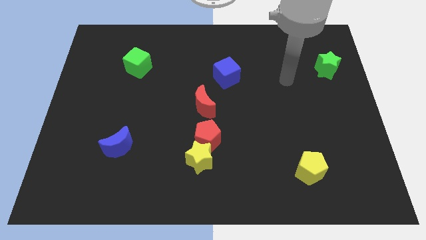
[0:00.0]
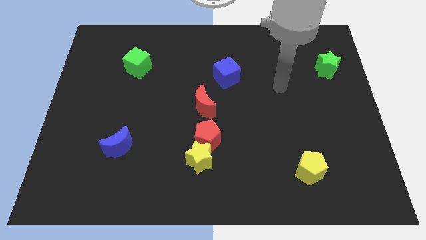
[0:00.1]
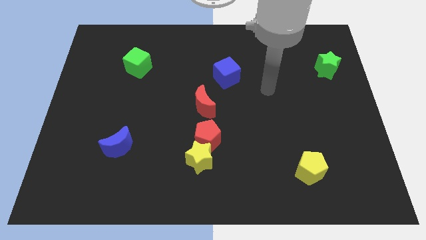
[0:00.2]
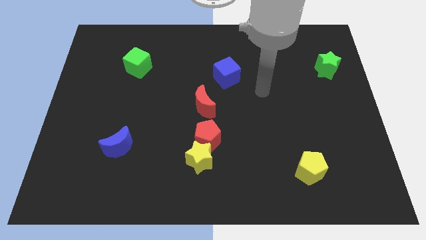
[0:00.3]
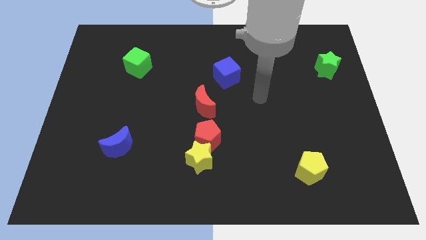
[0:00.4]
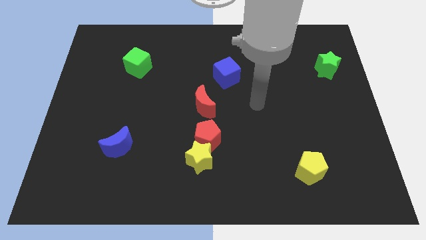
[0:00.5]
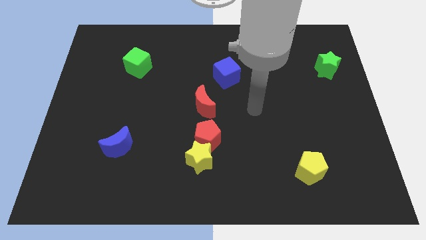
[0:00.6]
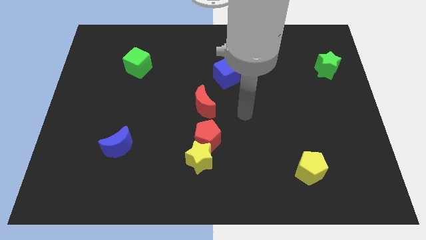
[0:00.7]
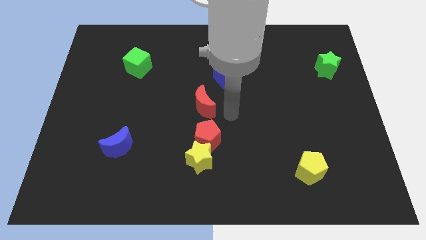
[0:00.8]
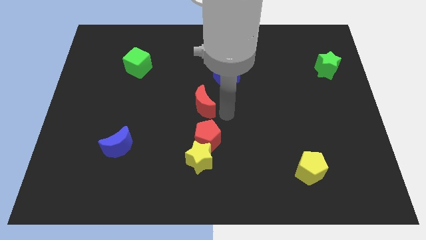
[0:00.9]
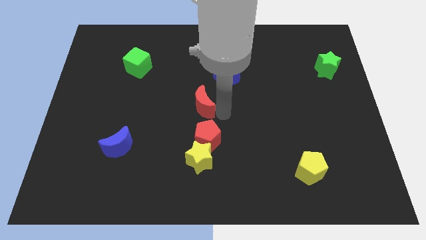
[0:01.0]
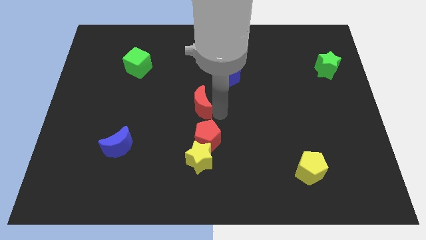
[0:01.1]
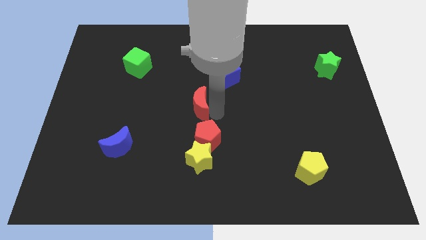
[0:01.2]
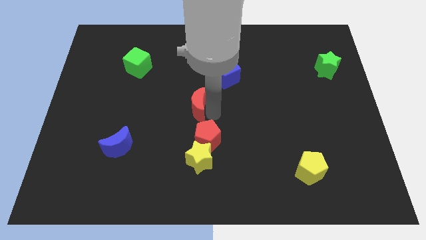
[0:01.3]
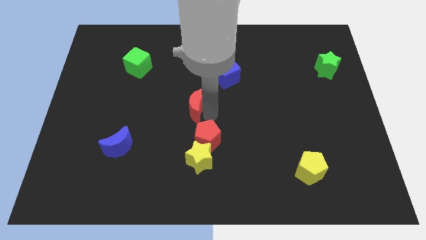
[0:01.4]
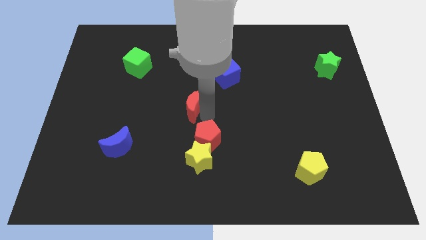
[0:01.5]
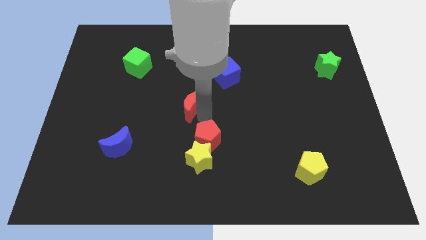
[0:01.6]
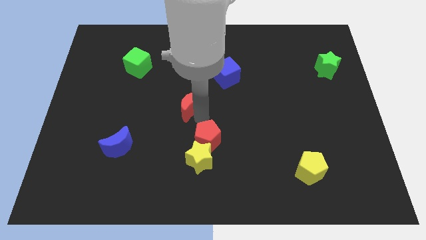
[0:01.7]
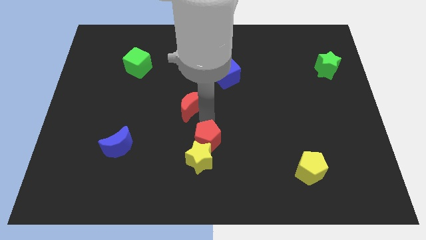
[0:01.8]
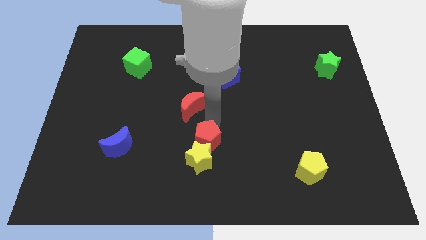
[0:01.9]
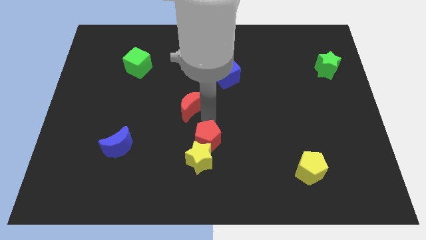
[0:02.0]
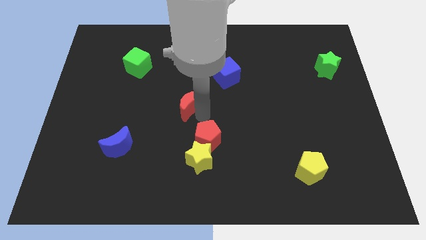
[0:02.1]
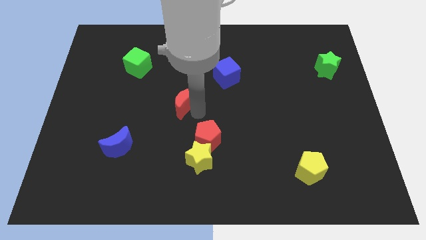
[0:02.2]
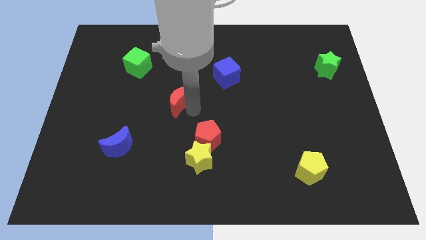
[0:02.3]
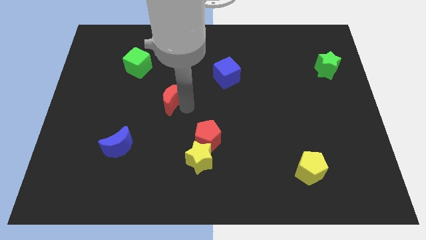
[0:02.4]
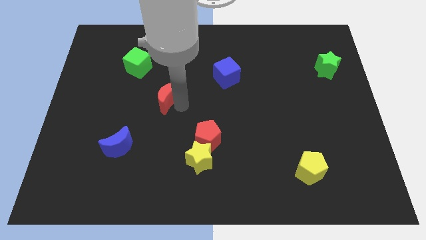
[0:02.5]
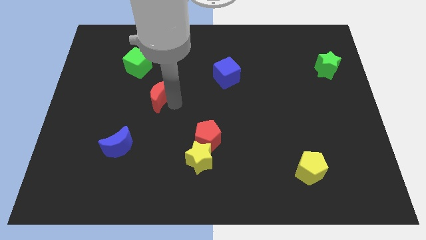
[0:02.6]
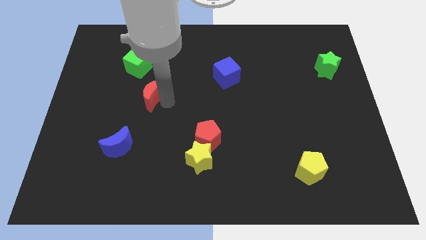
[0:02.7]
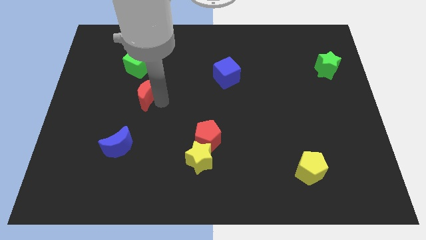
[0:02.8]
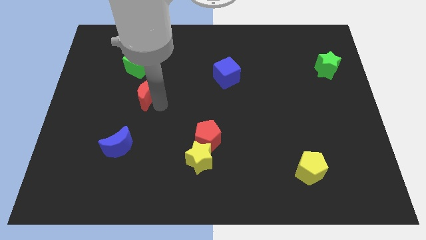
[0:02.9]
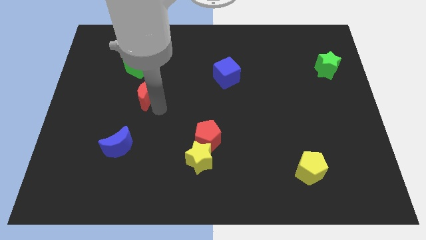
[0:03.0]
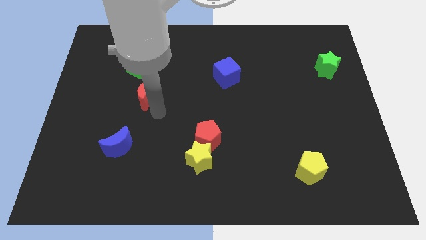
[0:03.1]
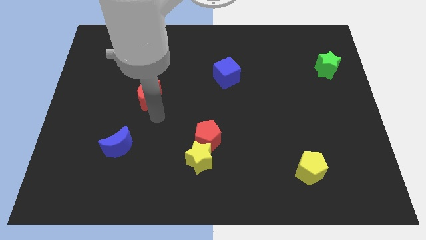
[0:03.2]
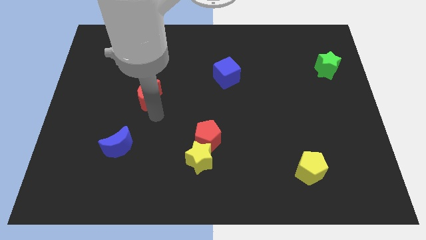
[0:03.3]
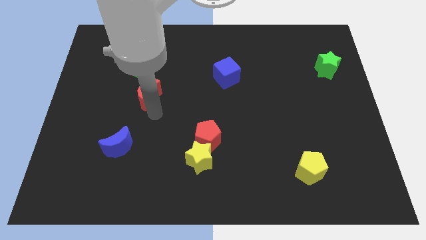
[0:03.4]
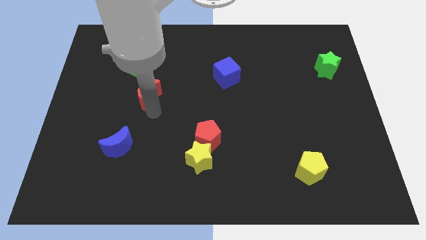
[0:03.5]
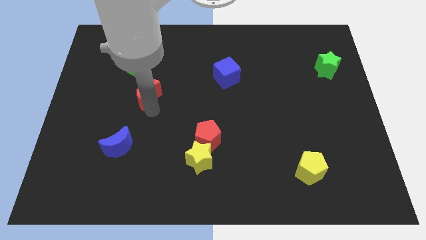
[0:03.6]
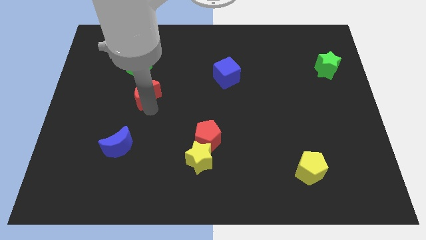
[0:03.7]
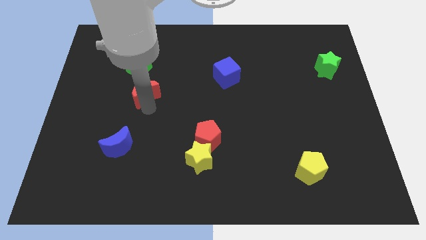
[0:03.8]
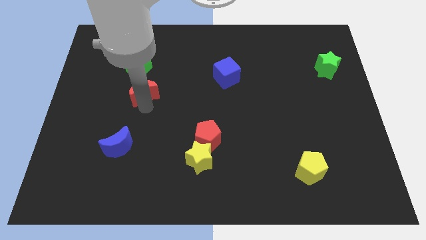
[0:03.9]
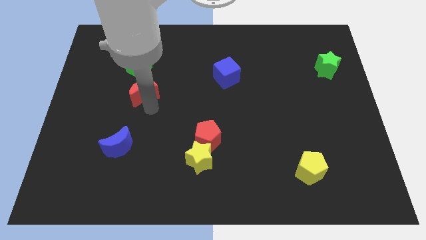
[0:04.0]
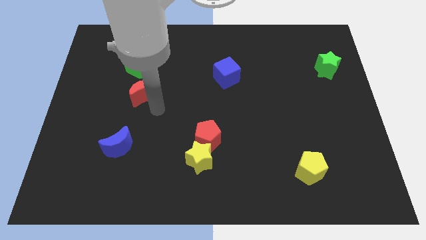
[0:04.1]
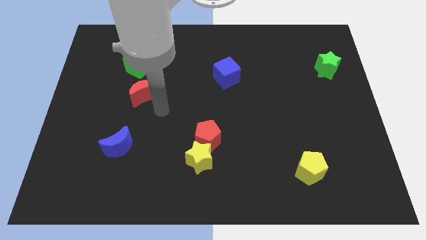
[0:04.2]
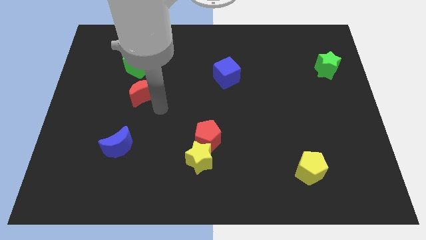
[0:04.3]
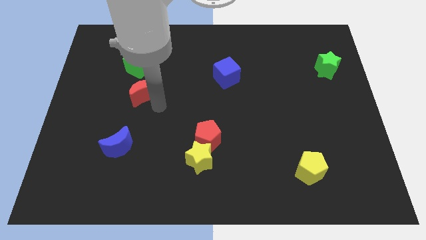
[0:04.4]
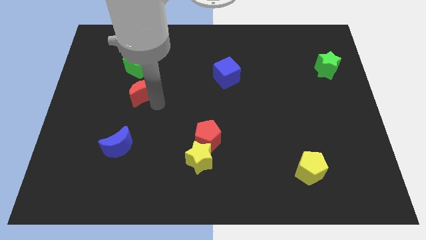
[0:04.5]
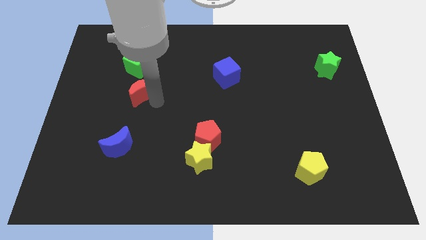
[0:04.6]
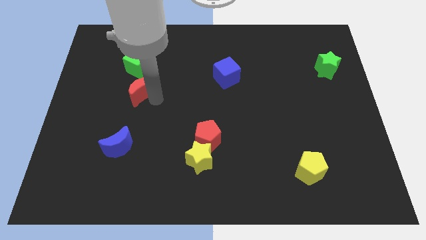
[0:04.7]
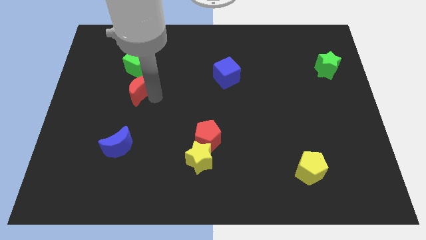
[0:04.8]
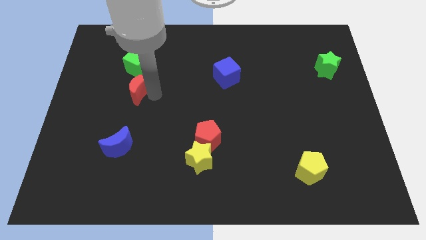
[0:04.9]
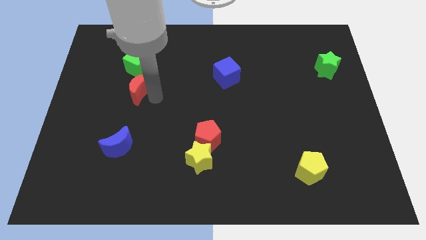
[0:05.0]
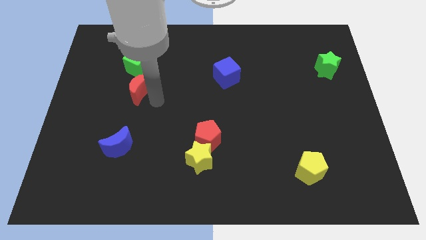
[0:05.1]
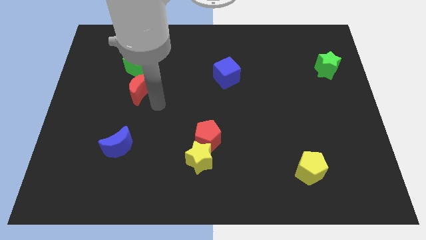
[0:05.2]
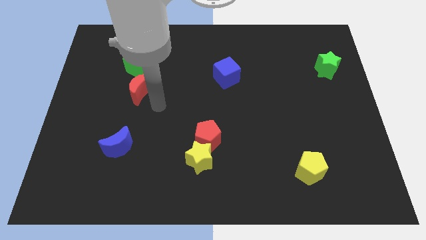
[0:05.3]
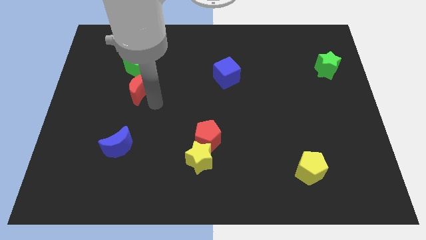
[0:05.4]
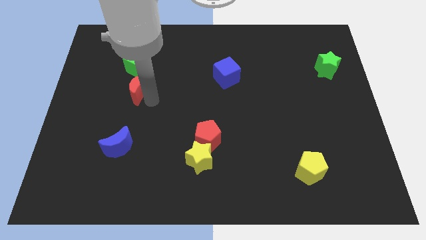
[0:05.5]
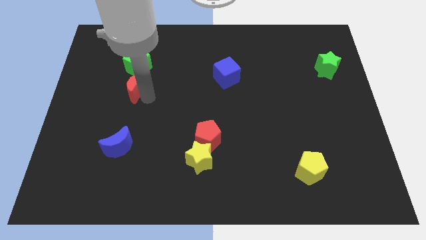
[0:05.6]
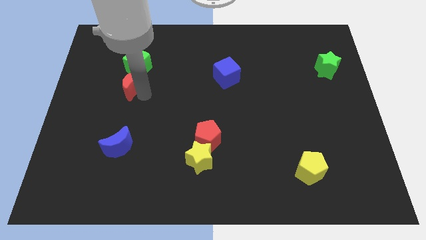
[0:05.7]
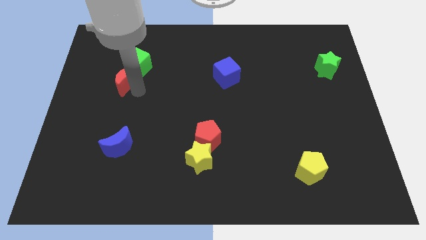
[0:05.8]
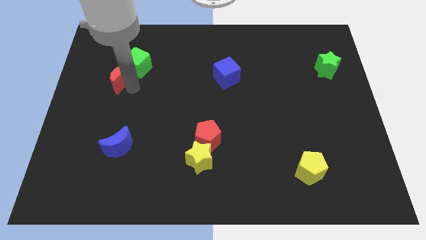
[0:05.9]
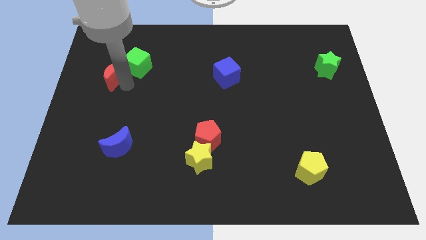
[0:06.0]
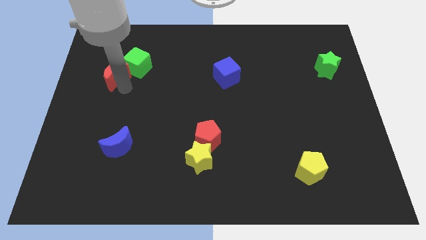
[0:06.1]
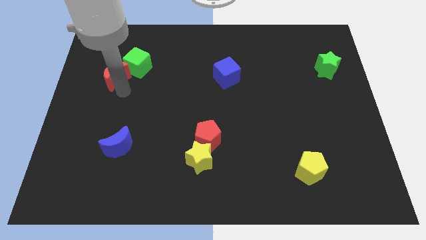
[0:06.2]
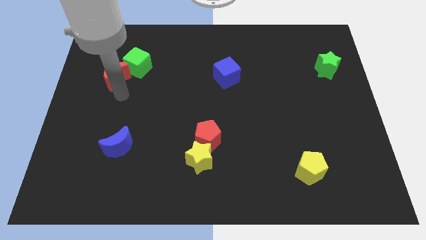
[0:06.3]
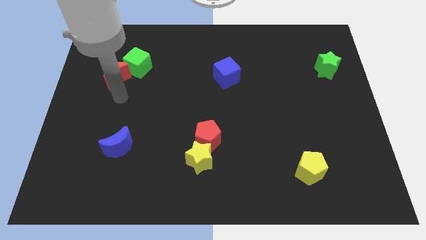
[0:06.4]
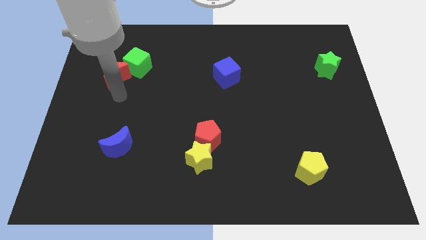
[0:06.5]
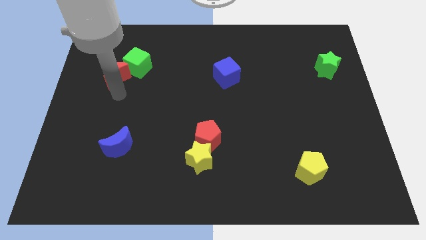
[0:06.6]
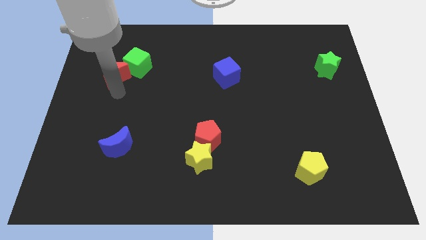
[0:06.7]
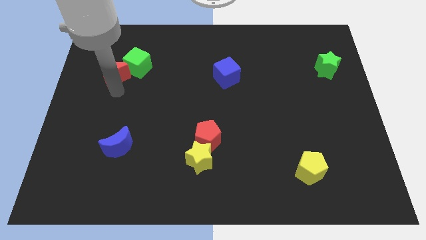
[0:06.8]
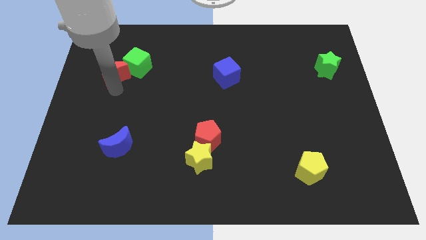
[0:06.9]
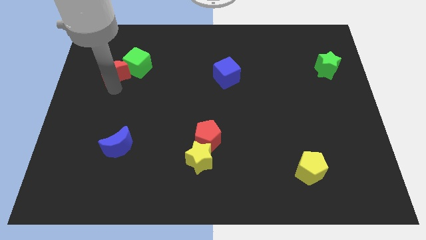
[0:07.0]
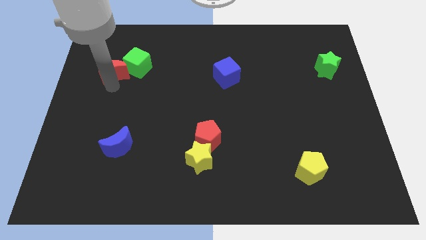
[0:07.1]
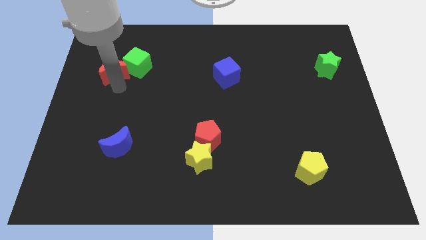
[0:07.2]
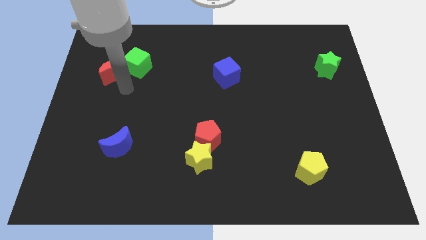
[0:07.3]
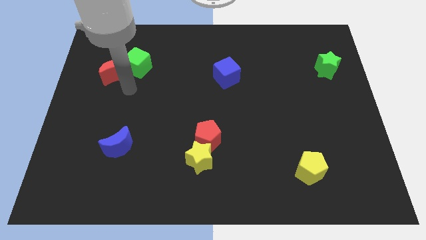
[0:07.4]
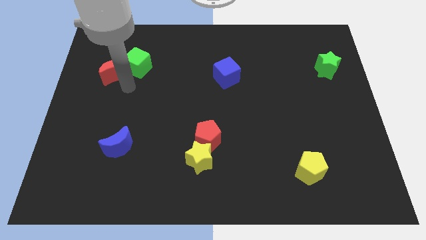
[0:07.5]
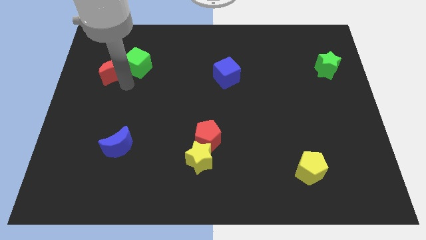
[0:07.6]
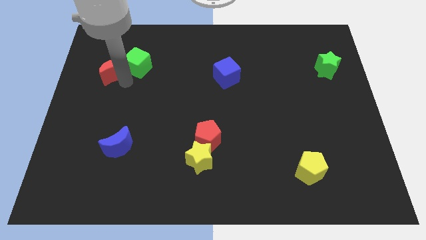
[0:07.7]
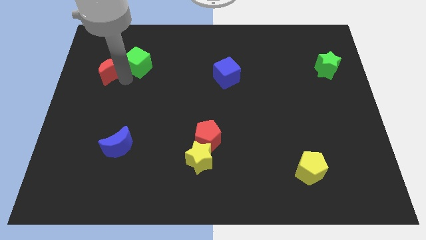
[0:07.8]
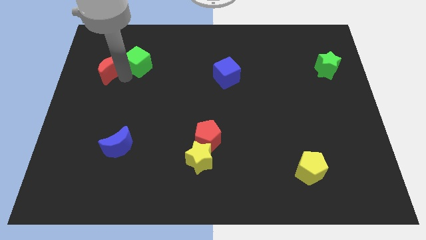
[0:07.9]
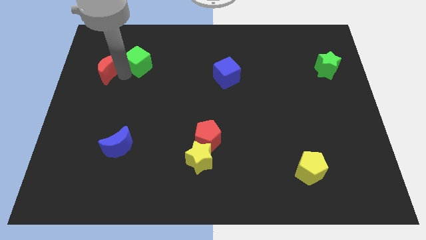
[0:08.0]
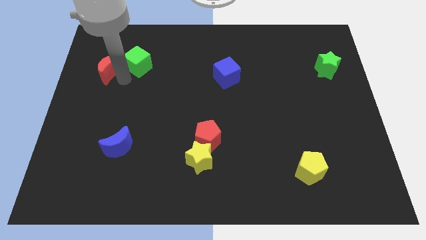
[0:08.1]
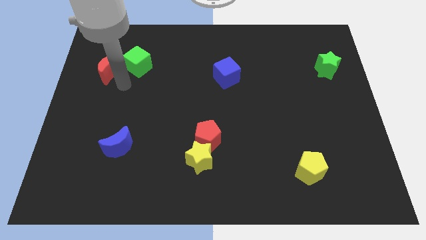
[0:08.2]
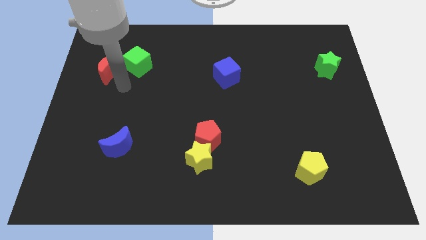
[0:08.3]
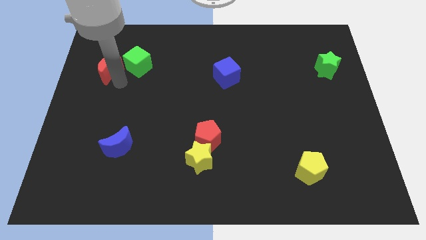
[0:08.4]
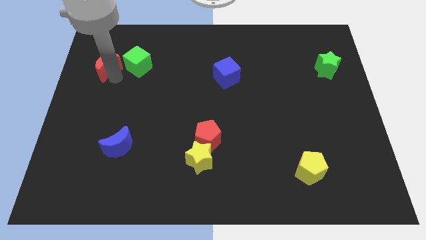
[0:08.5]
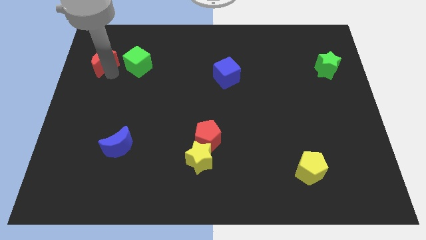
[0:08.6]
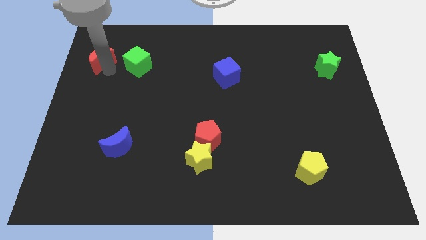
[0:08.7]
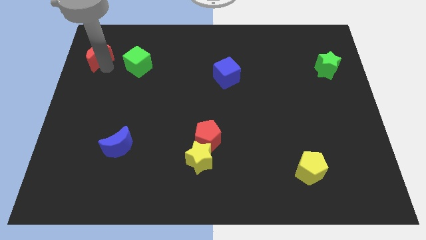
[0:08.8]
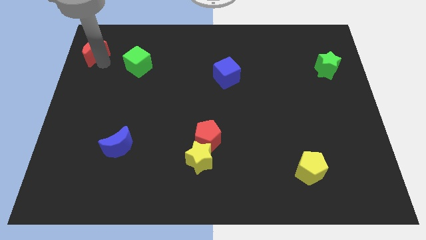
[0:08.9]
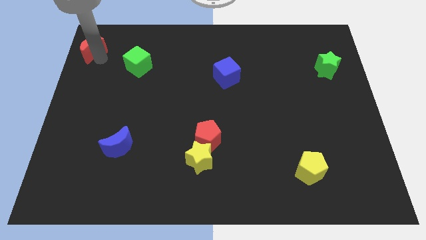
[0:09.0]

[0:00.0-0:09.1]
move the red moon to the upper left corner
